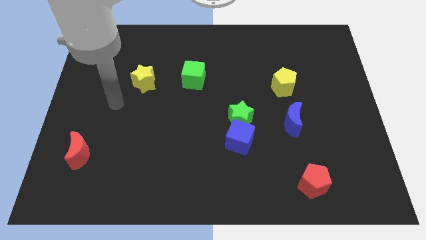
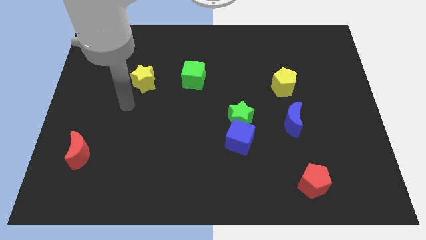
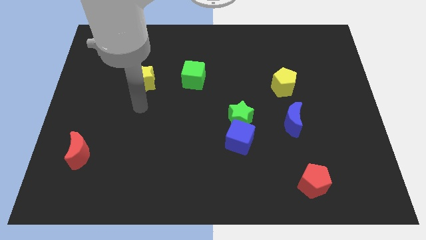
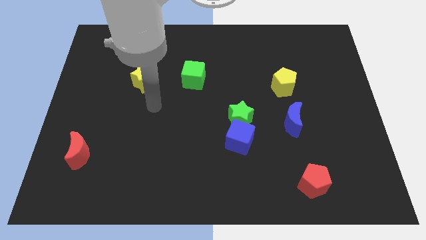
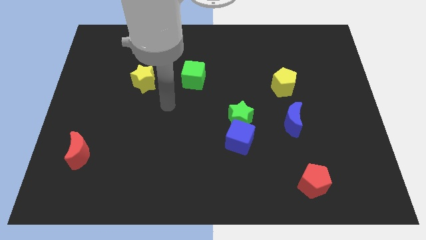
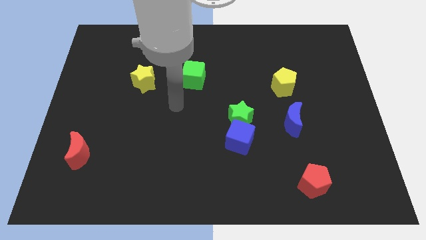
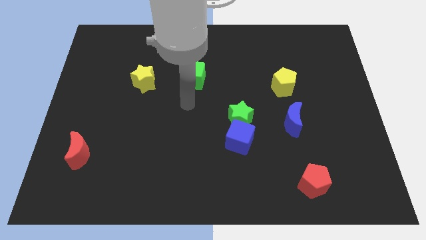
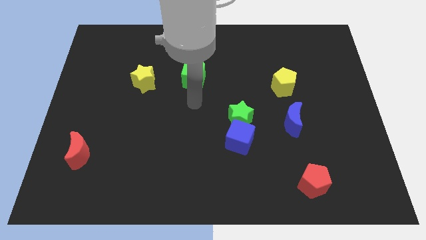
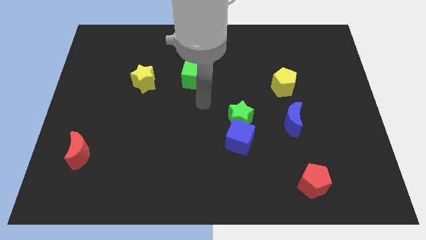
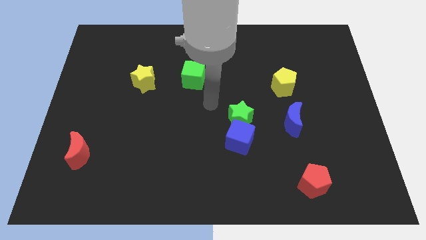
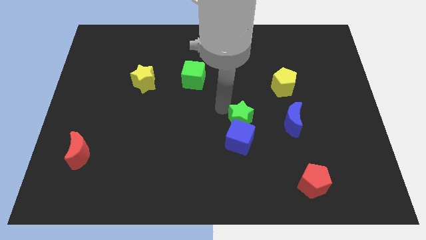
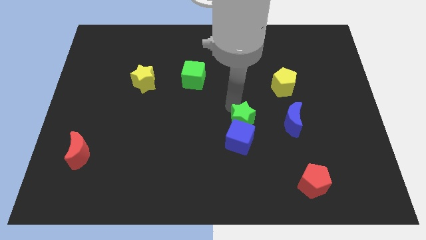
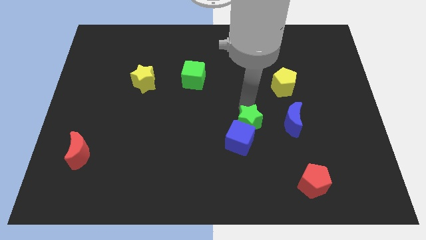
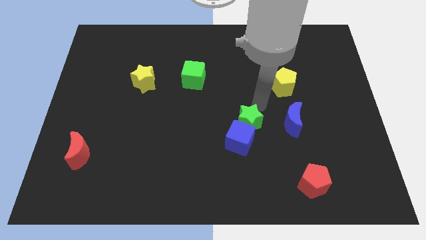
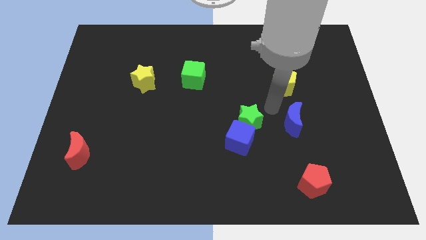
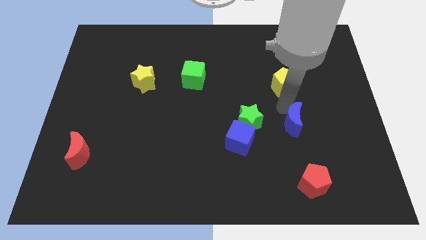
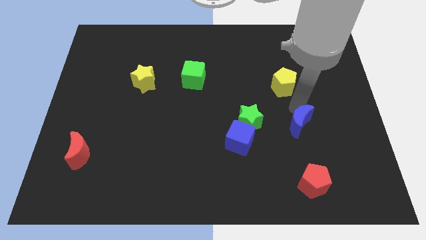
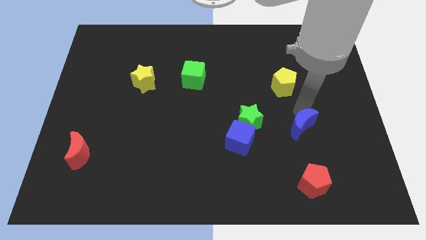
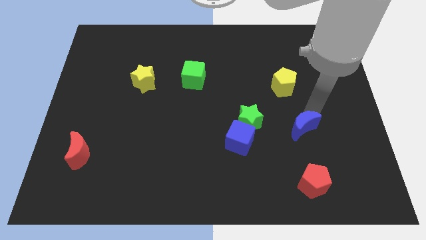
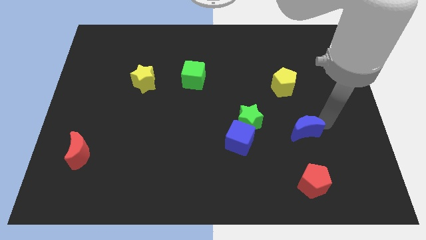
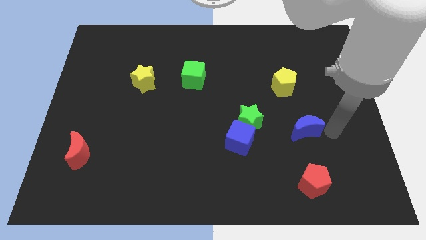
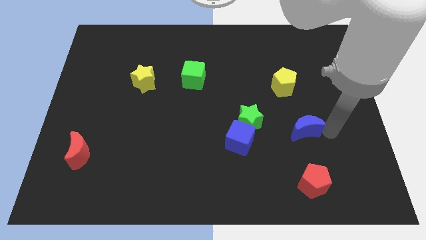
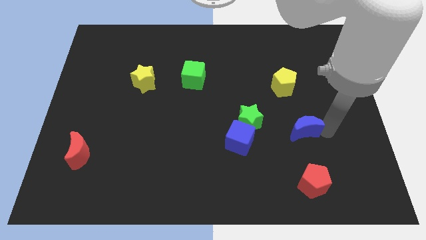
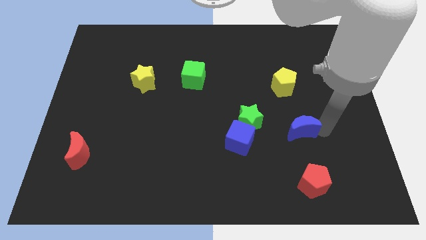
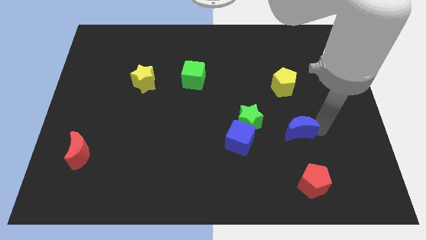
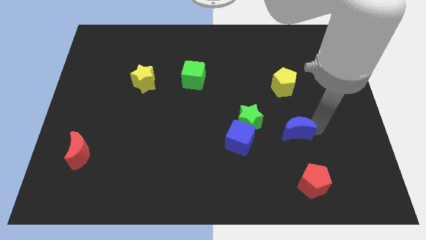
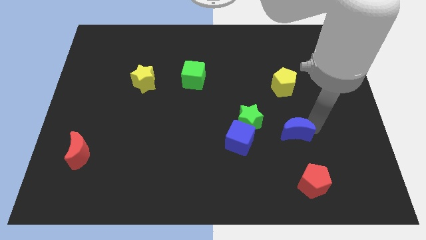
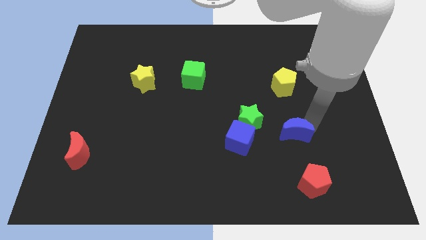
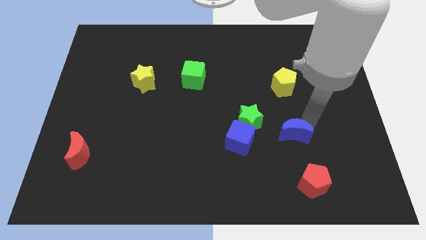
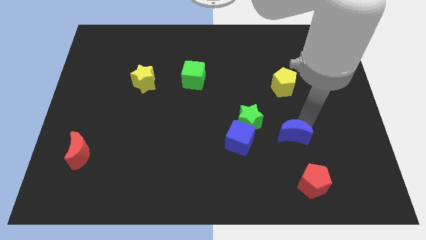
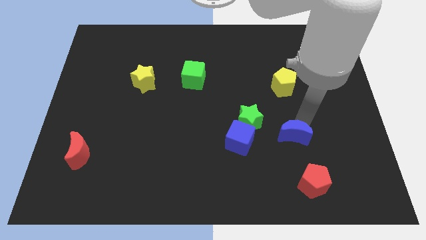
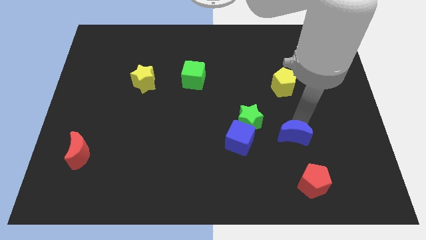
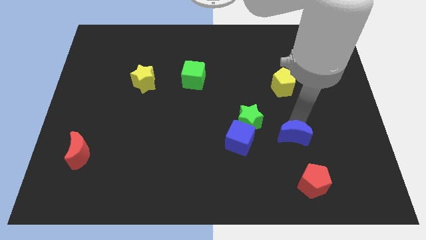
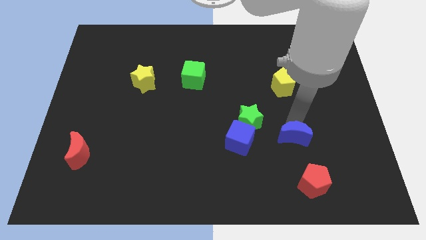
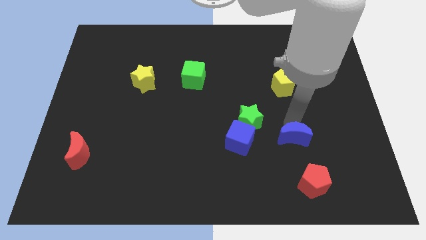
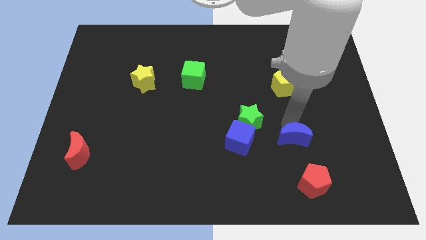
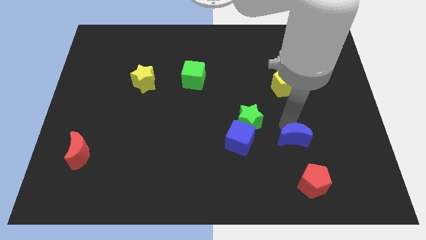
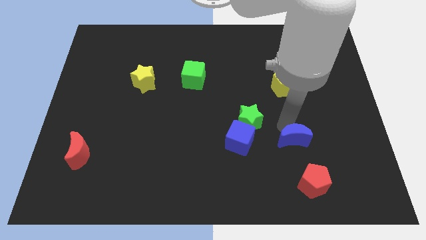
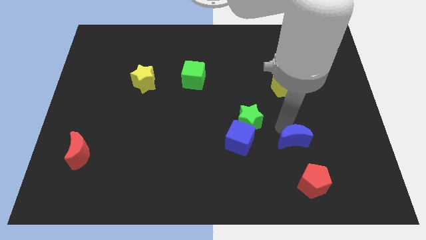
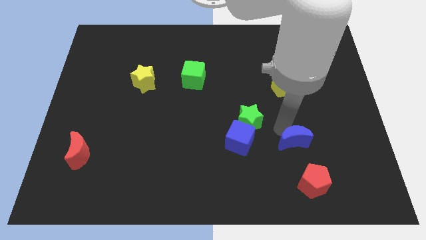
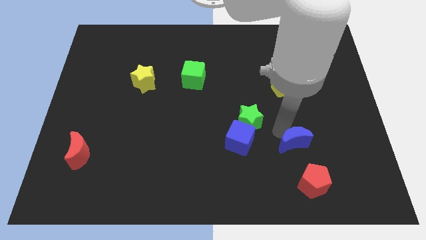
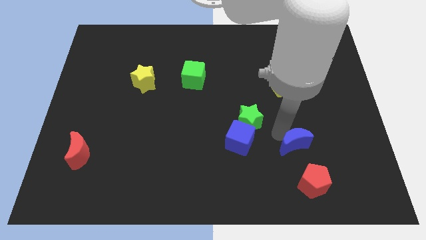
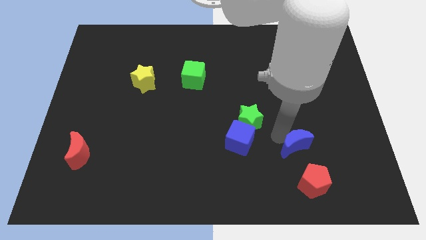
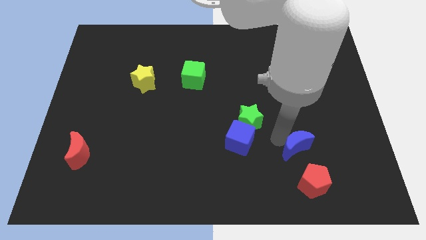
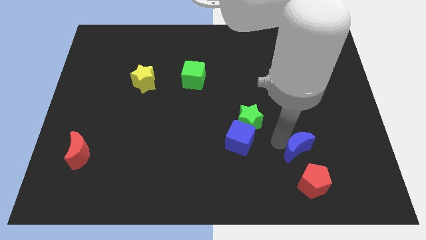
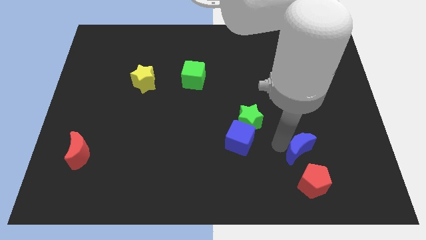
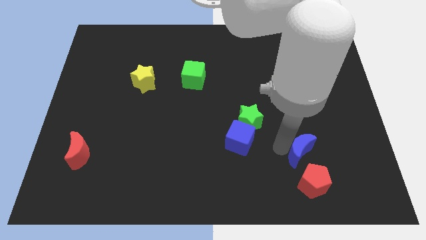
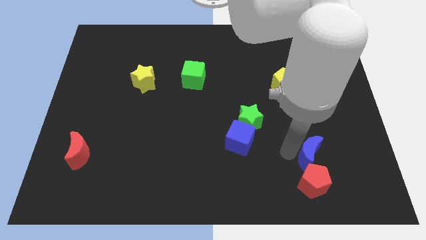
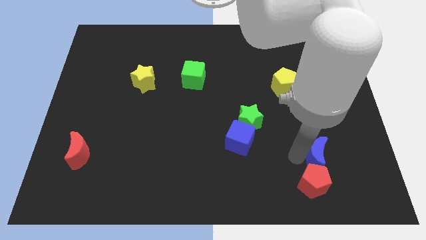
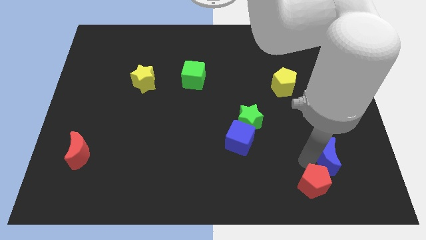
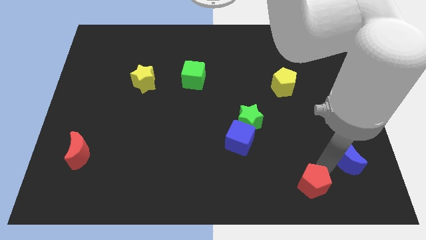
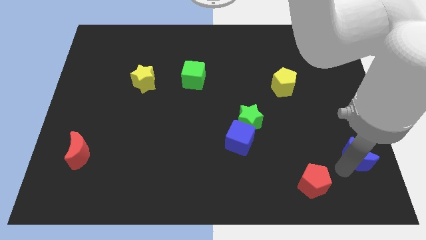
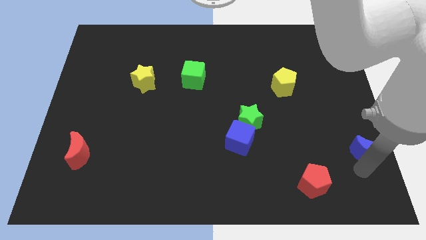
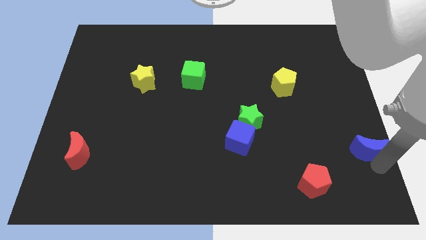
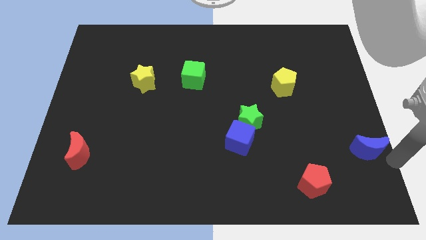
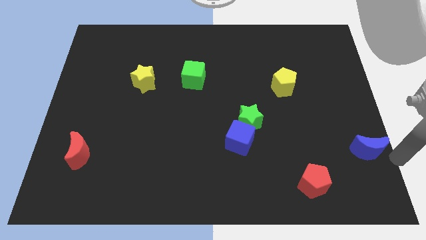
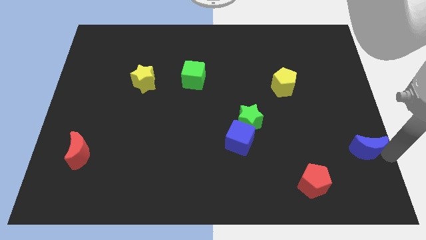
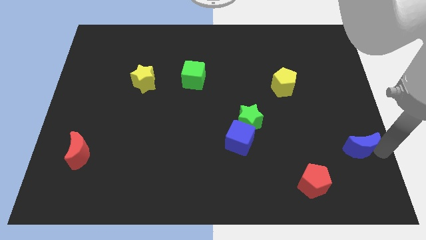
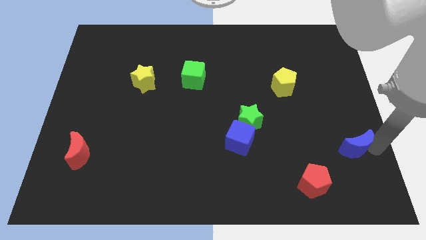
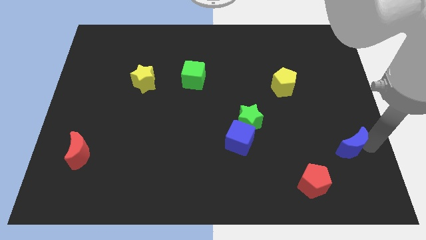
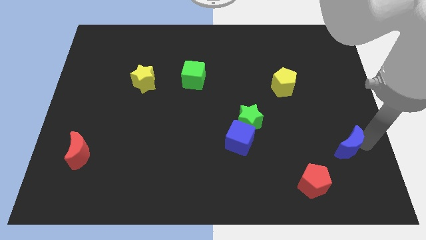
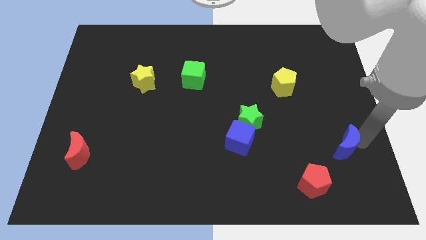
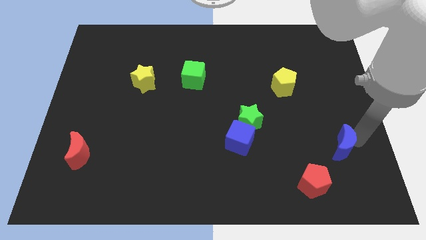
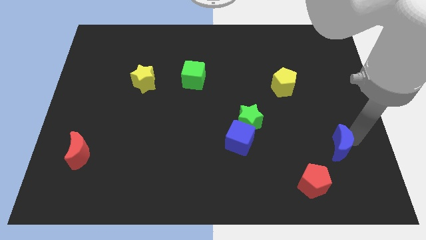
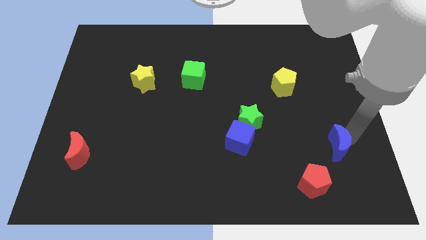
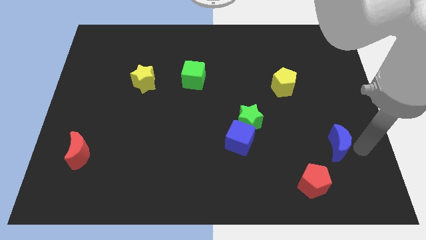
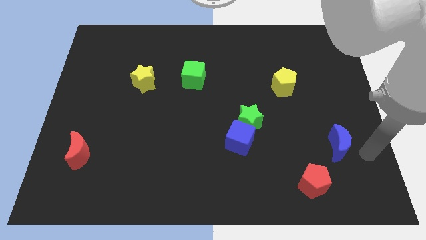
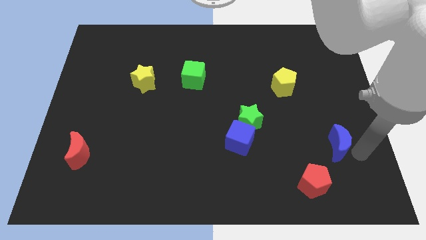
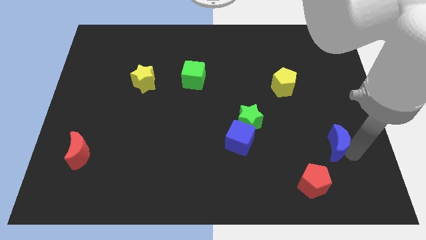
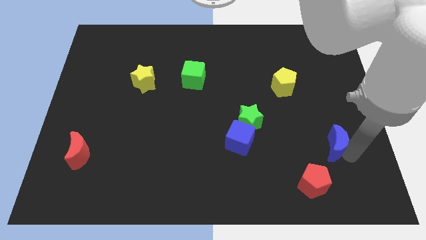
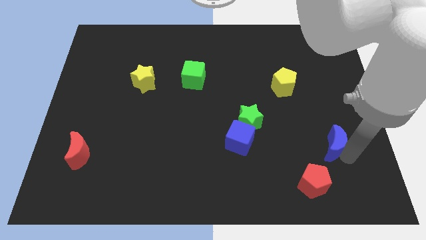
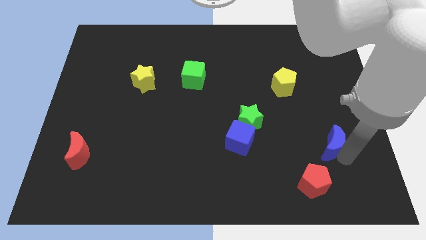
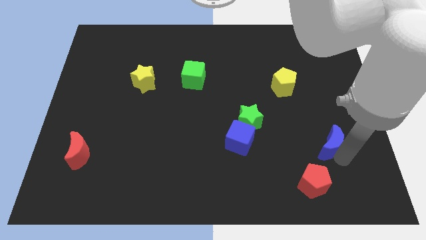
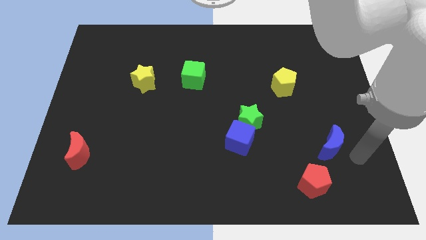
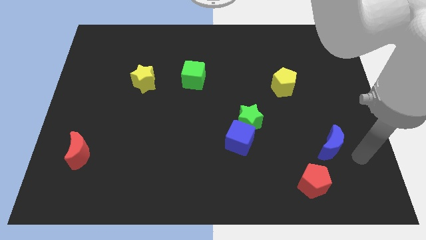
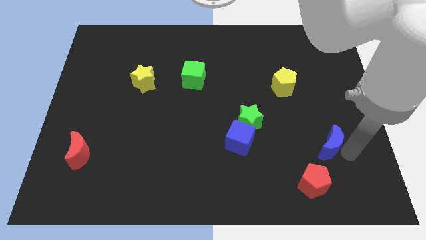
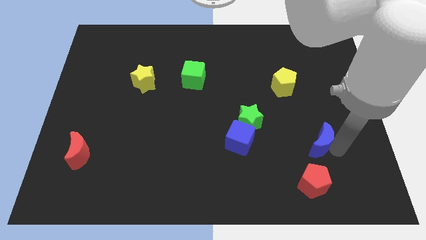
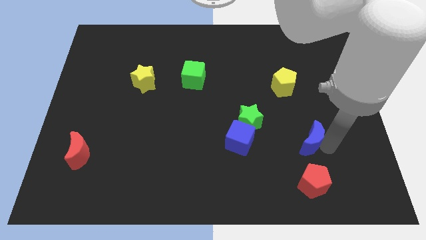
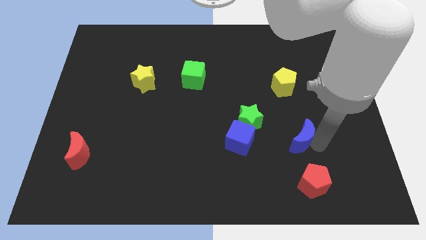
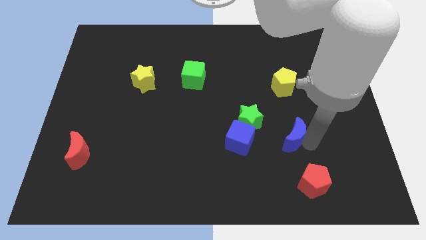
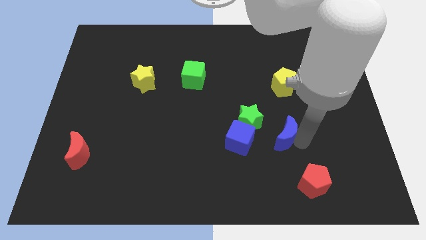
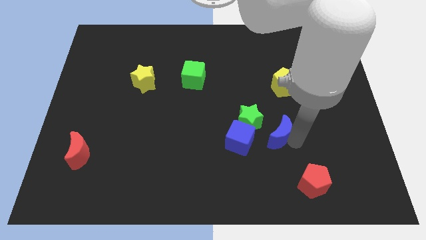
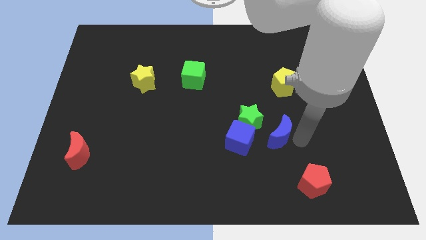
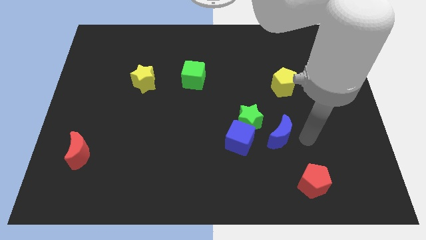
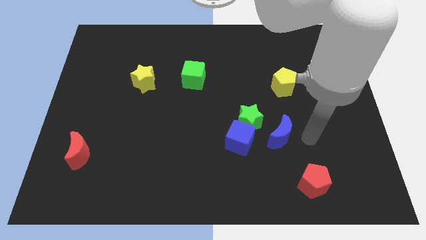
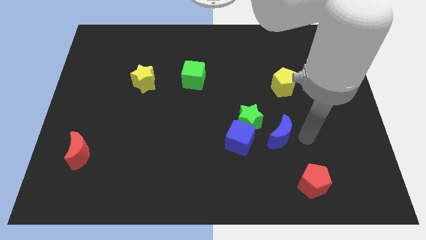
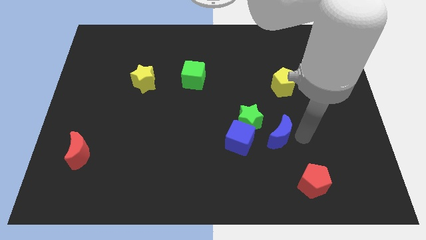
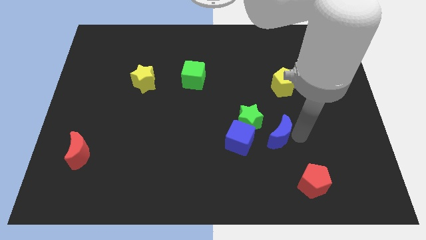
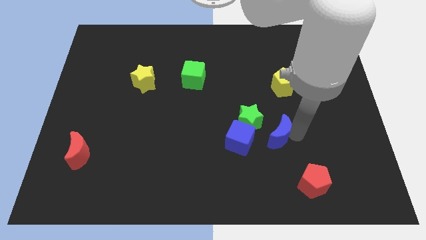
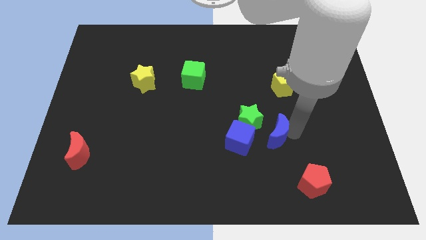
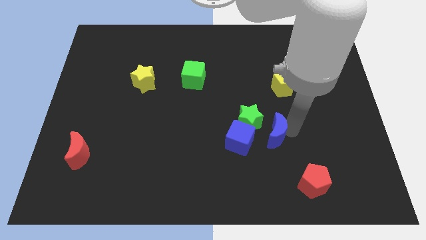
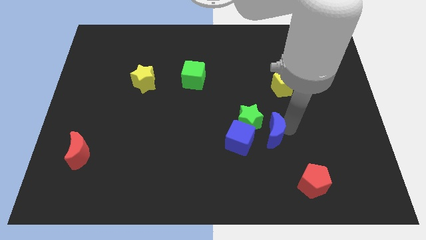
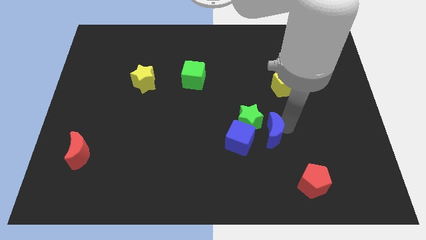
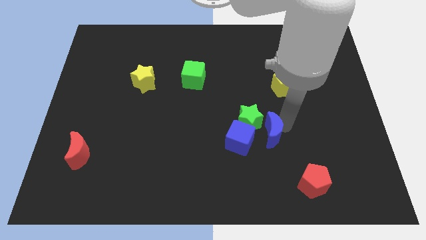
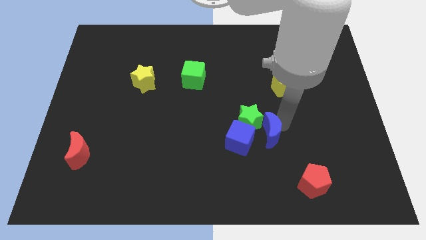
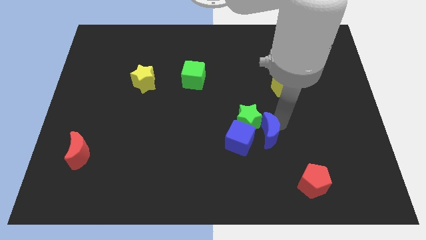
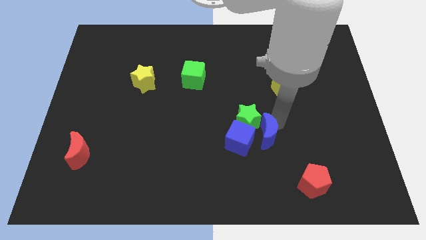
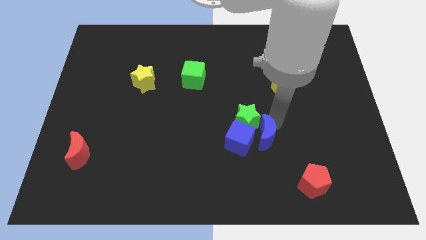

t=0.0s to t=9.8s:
move the blue moon close to the blue cube
